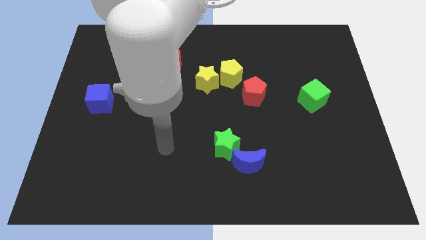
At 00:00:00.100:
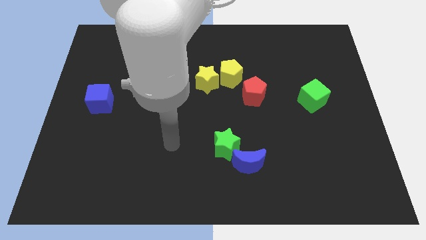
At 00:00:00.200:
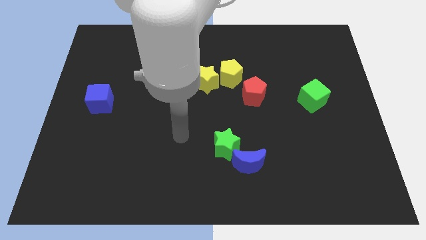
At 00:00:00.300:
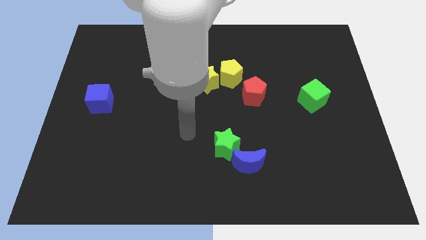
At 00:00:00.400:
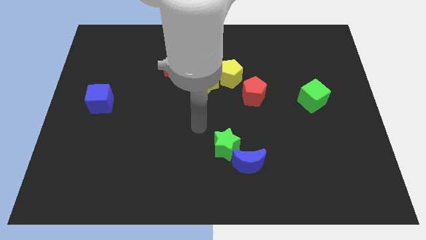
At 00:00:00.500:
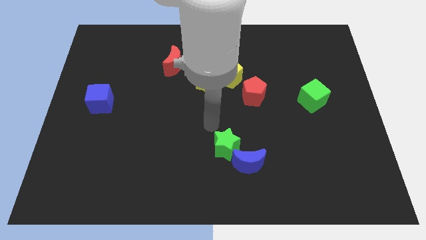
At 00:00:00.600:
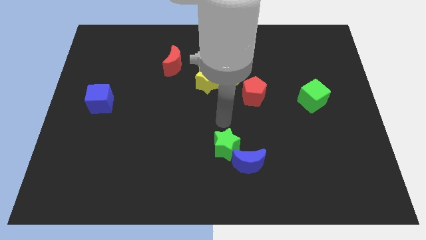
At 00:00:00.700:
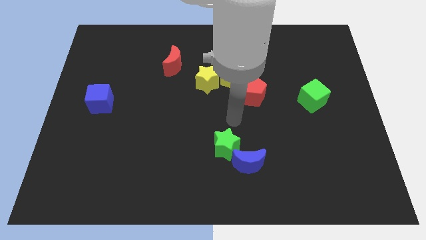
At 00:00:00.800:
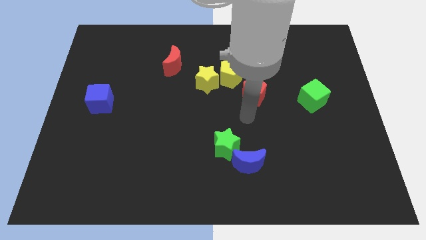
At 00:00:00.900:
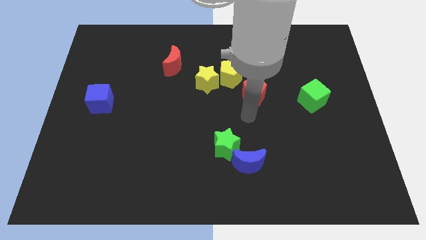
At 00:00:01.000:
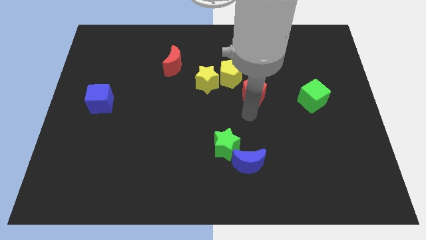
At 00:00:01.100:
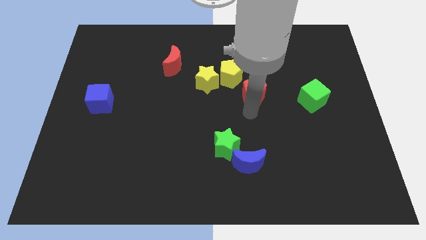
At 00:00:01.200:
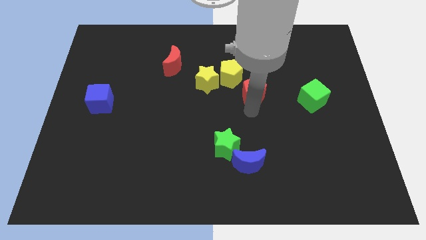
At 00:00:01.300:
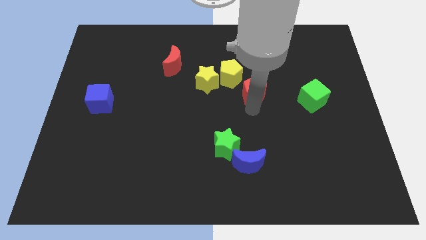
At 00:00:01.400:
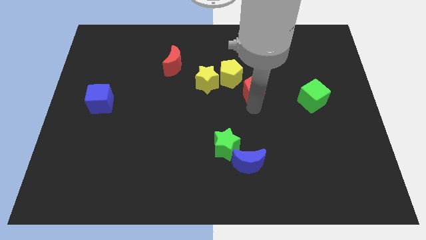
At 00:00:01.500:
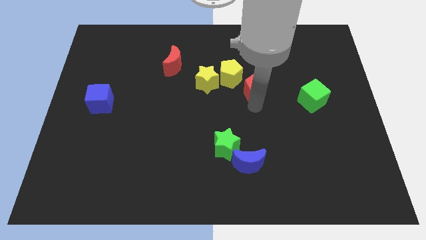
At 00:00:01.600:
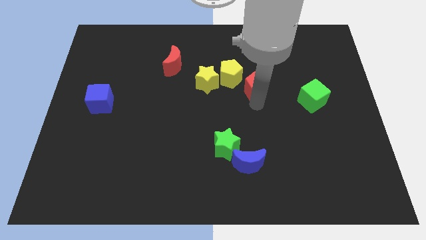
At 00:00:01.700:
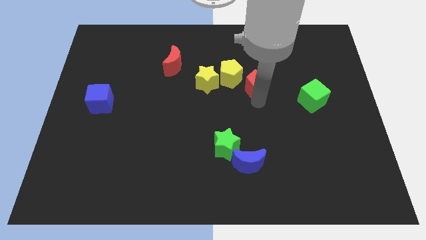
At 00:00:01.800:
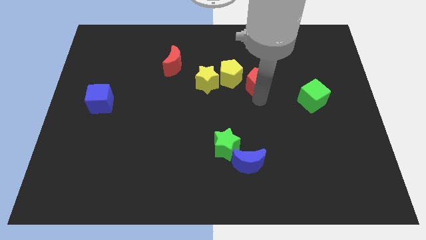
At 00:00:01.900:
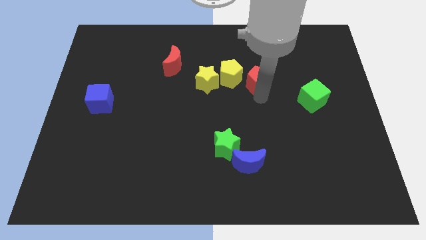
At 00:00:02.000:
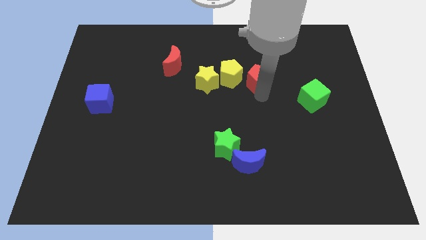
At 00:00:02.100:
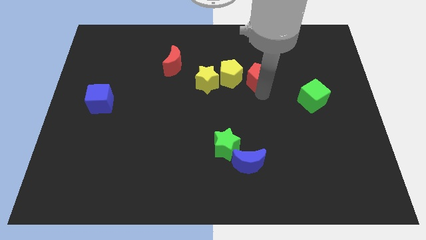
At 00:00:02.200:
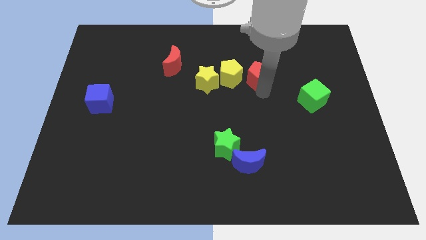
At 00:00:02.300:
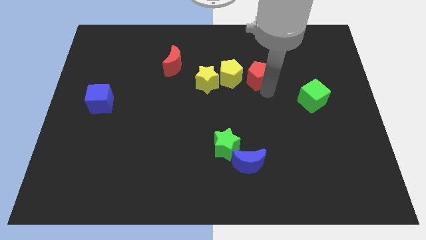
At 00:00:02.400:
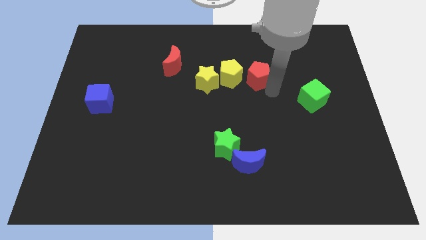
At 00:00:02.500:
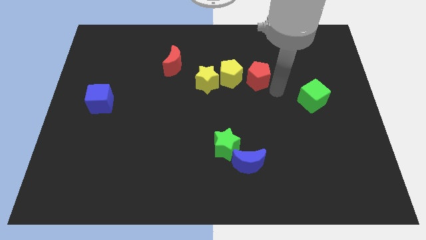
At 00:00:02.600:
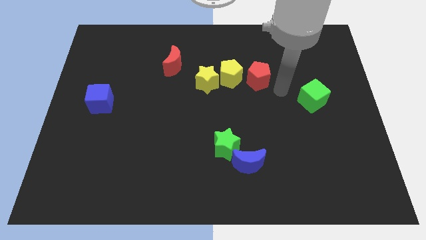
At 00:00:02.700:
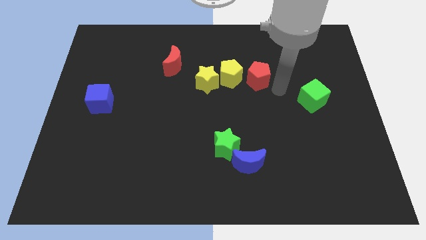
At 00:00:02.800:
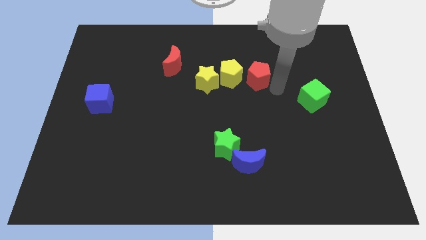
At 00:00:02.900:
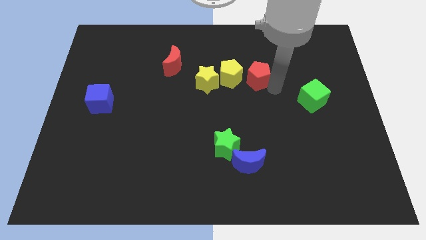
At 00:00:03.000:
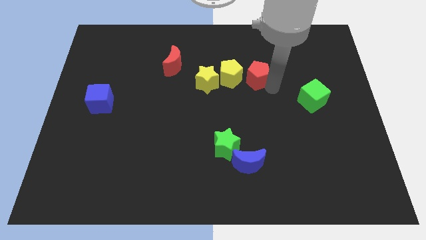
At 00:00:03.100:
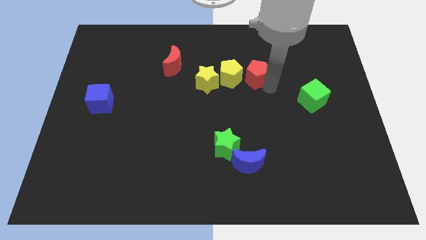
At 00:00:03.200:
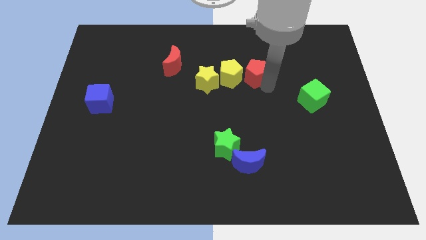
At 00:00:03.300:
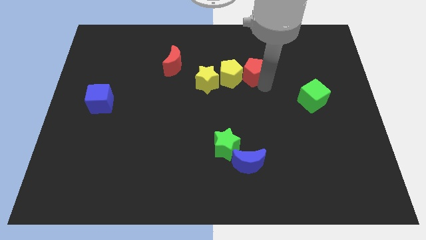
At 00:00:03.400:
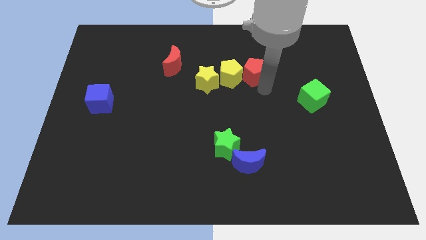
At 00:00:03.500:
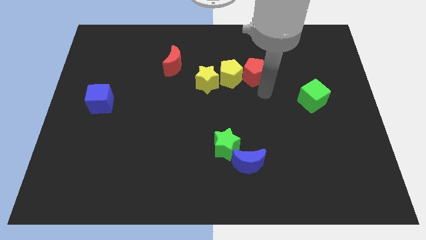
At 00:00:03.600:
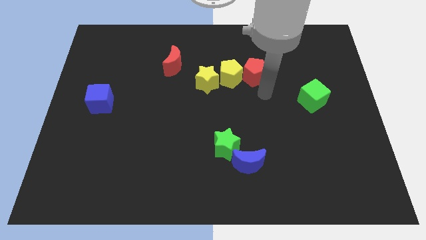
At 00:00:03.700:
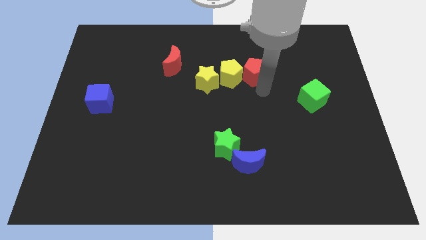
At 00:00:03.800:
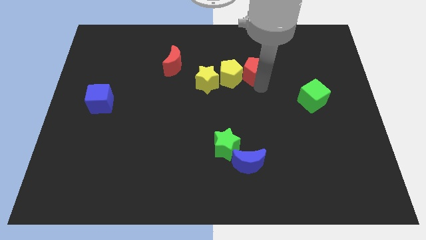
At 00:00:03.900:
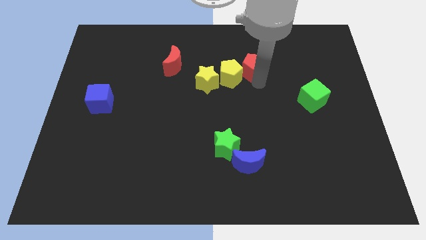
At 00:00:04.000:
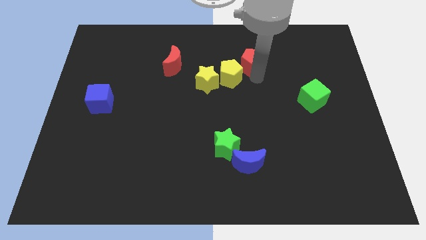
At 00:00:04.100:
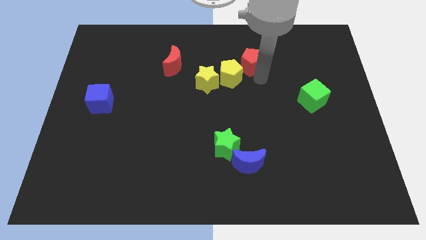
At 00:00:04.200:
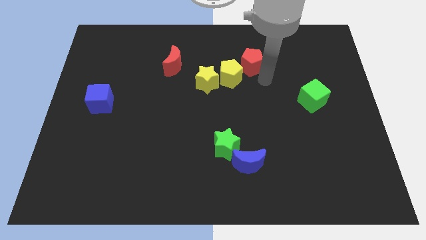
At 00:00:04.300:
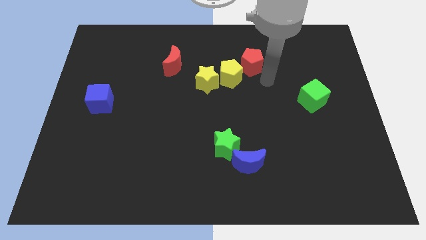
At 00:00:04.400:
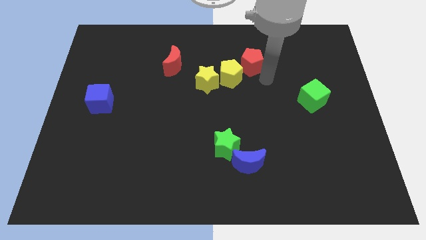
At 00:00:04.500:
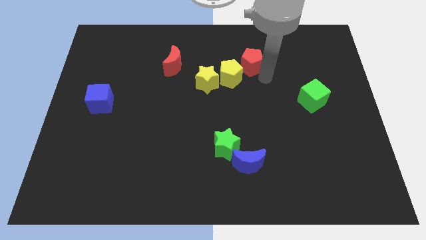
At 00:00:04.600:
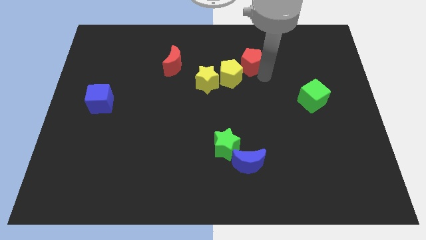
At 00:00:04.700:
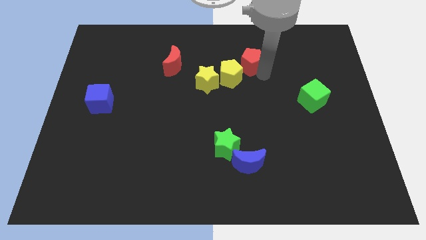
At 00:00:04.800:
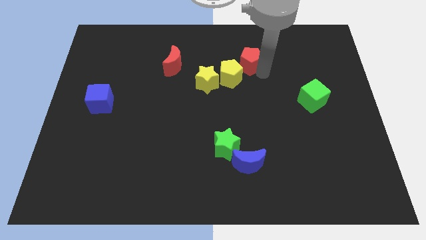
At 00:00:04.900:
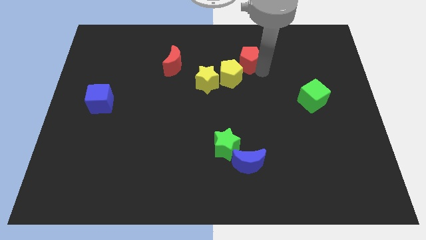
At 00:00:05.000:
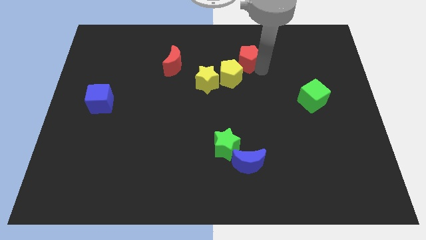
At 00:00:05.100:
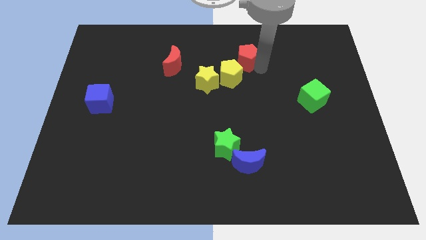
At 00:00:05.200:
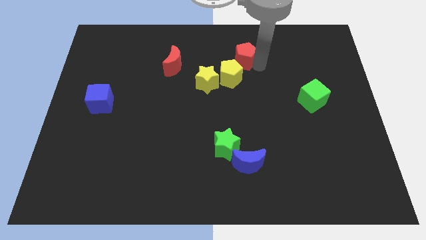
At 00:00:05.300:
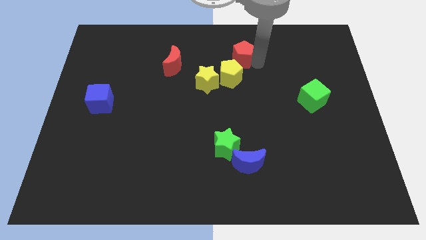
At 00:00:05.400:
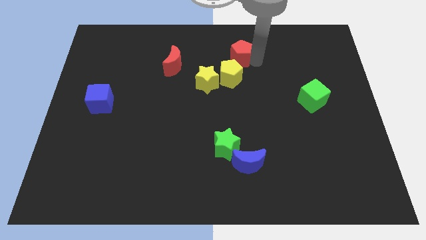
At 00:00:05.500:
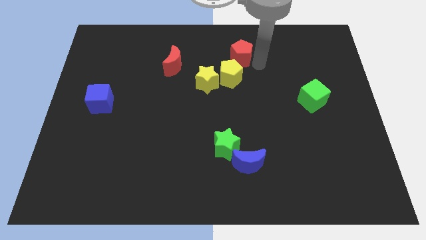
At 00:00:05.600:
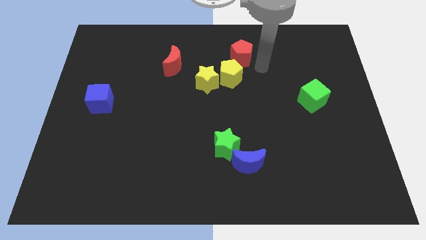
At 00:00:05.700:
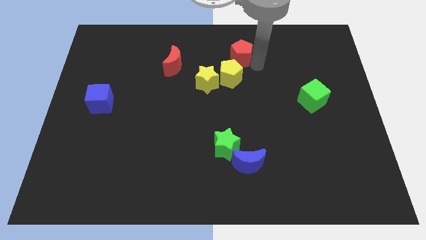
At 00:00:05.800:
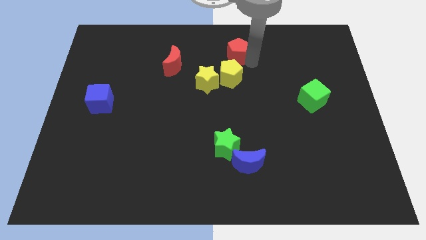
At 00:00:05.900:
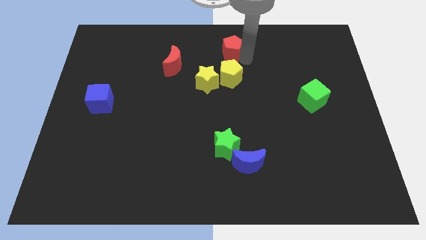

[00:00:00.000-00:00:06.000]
slide the red pentagon to the towards your base
